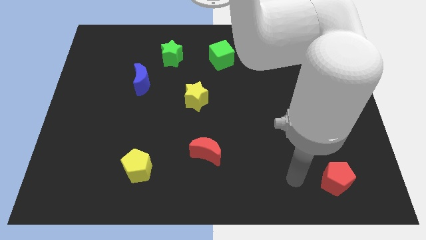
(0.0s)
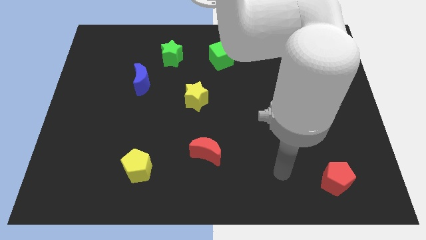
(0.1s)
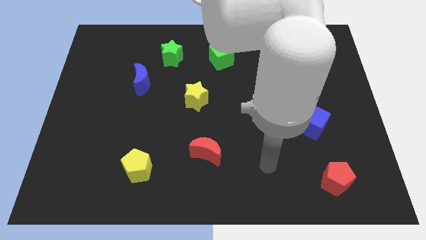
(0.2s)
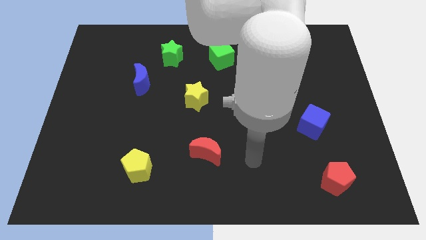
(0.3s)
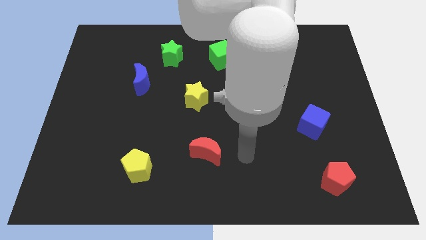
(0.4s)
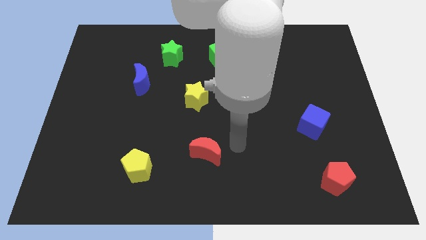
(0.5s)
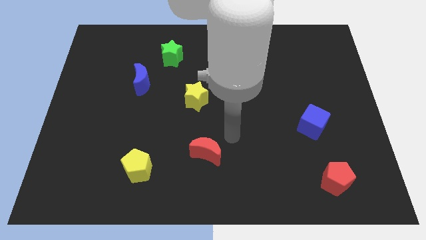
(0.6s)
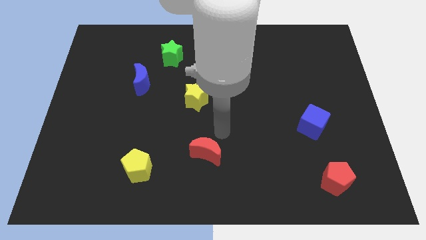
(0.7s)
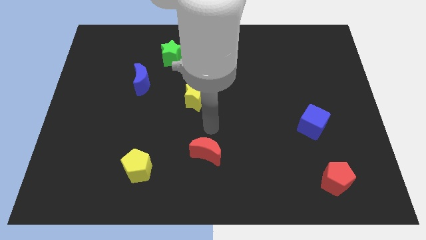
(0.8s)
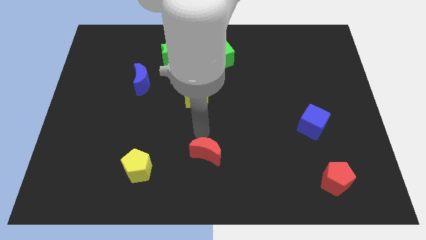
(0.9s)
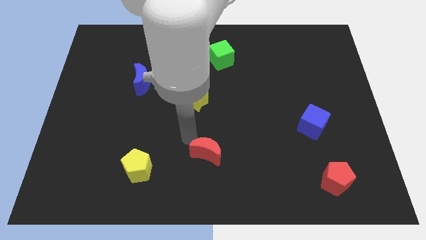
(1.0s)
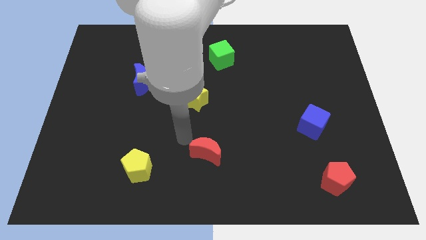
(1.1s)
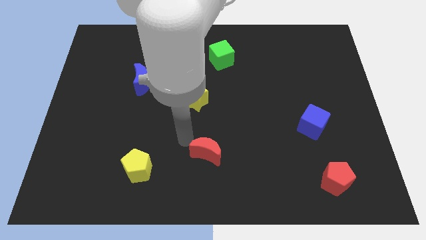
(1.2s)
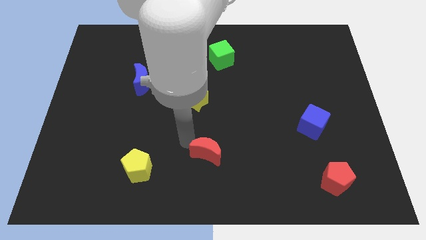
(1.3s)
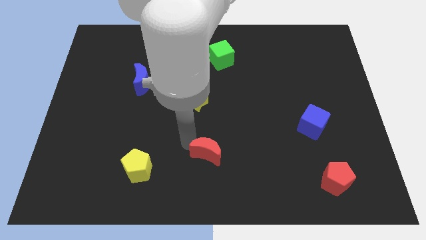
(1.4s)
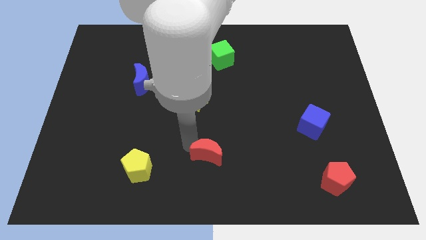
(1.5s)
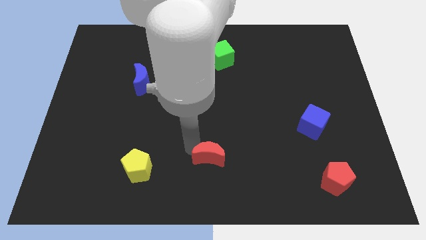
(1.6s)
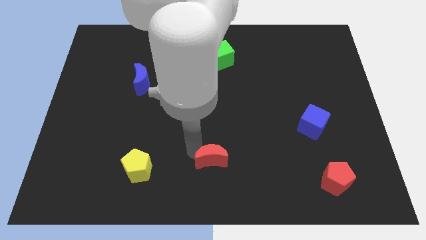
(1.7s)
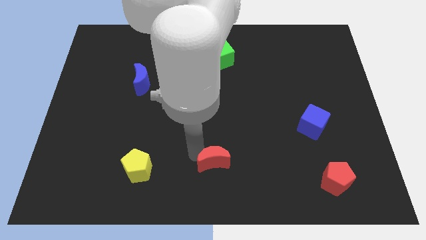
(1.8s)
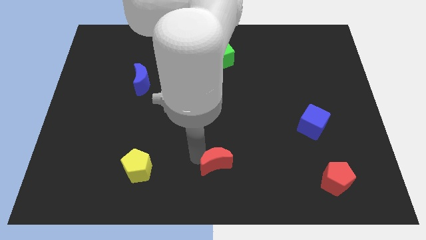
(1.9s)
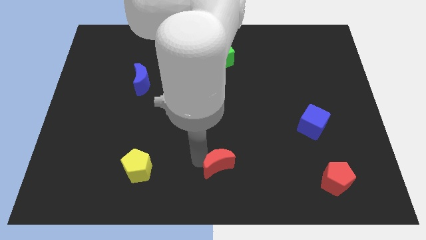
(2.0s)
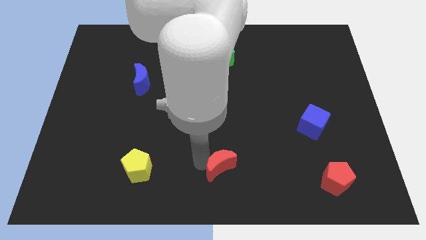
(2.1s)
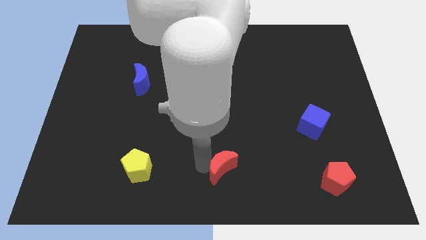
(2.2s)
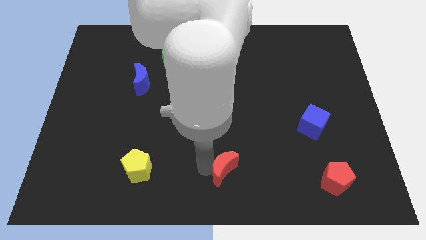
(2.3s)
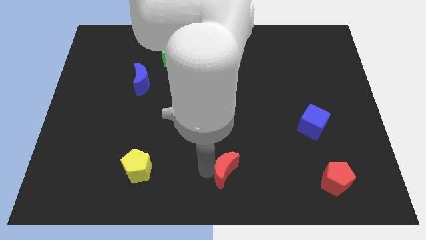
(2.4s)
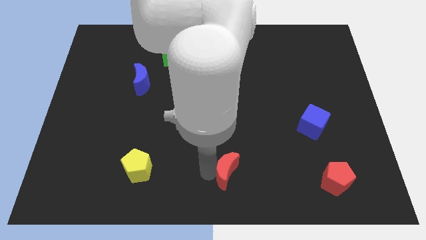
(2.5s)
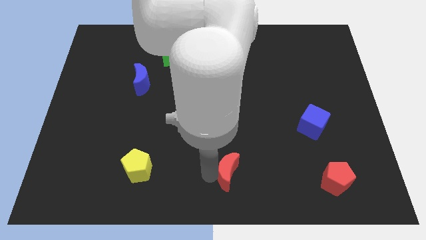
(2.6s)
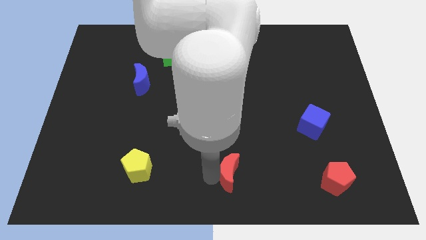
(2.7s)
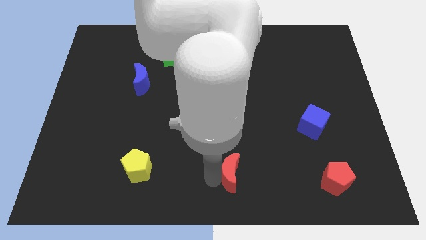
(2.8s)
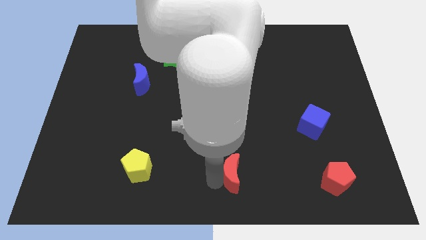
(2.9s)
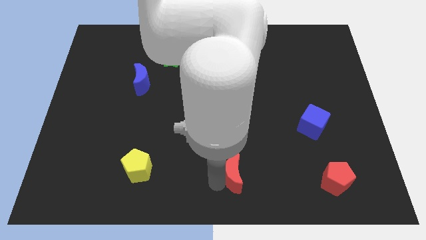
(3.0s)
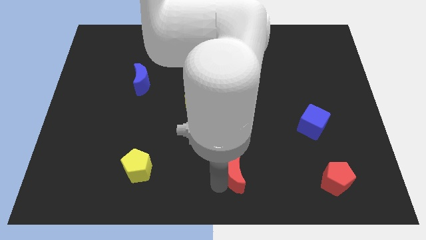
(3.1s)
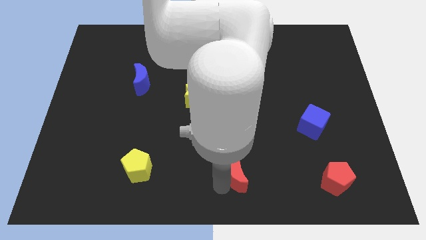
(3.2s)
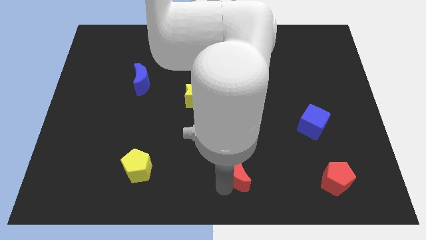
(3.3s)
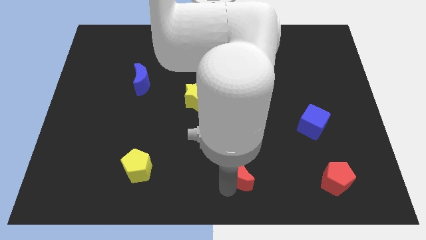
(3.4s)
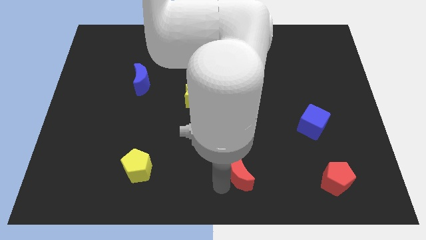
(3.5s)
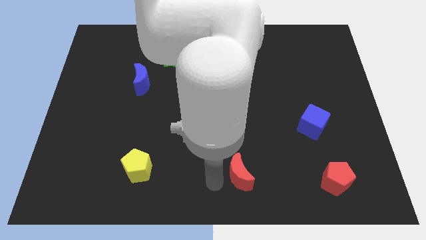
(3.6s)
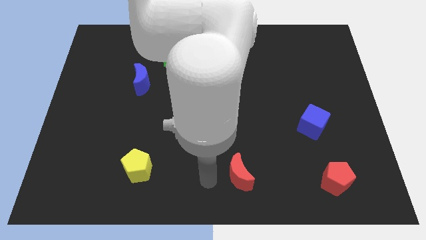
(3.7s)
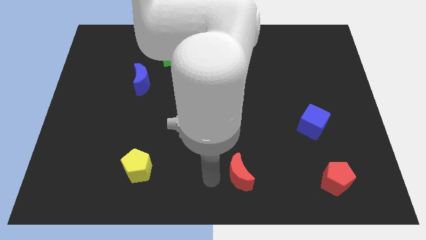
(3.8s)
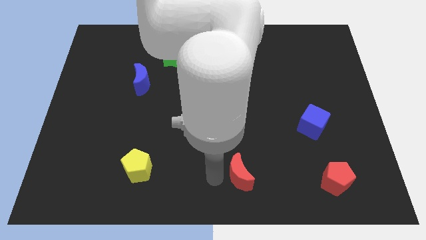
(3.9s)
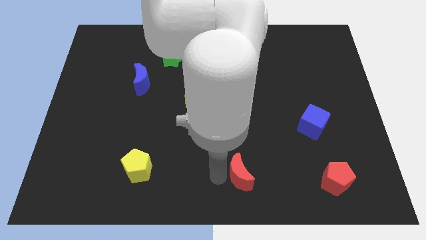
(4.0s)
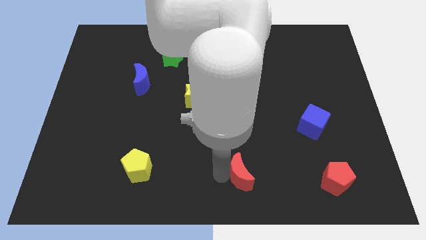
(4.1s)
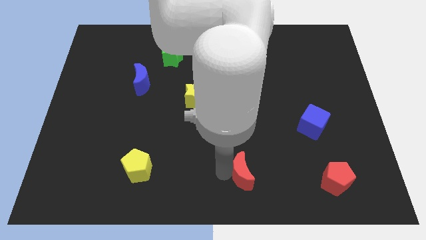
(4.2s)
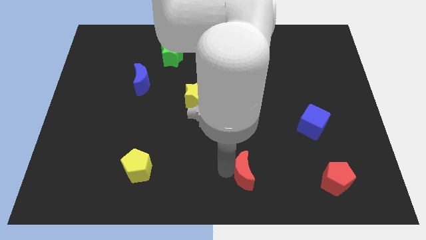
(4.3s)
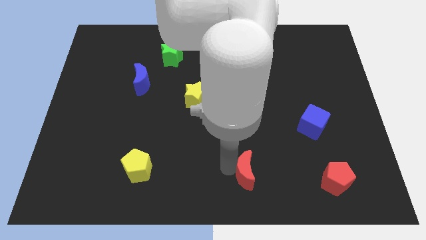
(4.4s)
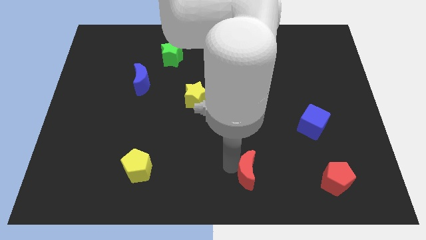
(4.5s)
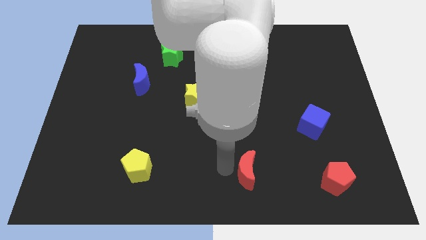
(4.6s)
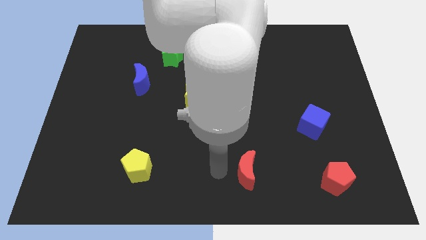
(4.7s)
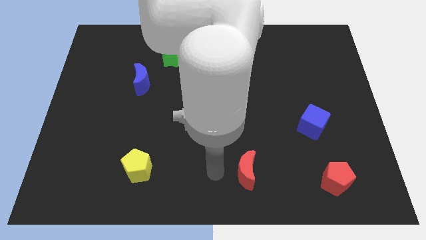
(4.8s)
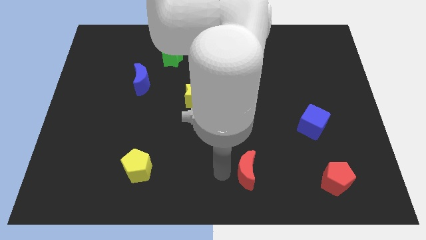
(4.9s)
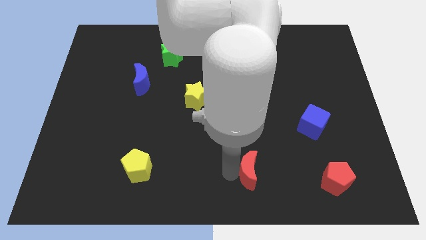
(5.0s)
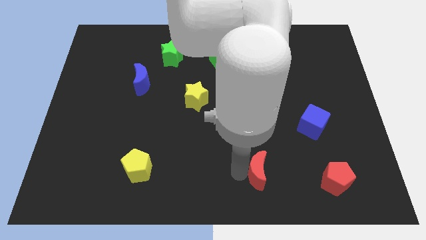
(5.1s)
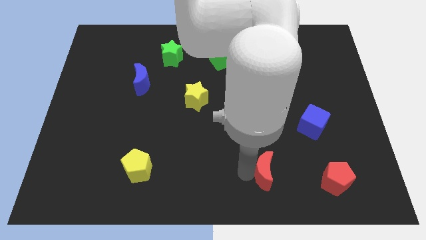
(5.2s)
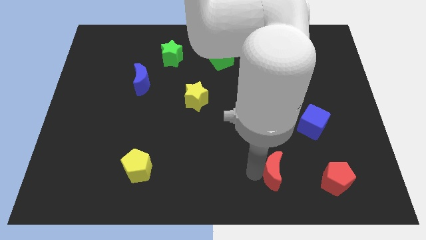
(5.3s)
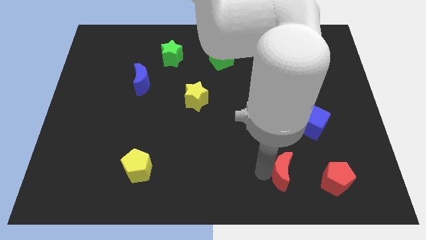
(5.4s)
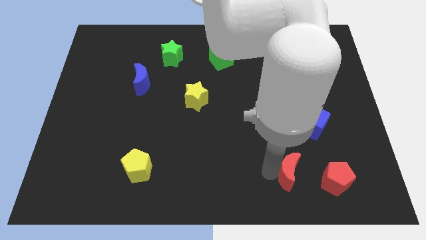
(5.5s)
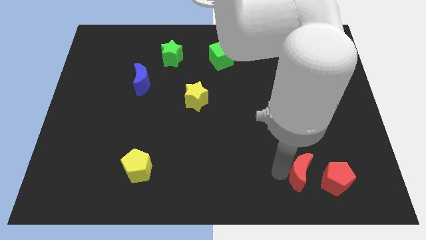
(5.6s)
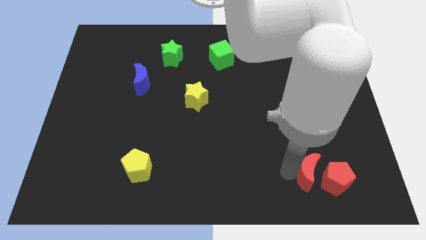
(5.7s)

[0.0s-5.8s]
put the red moon towards the red pentagon
